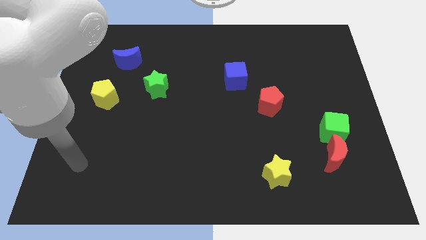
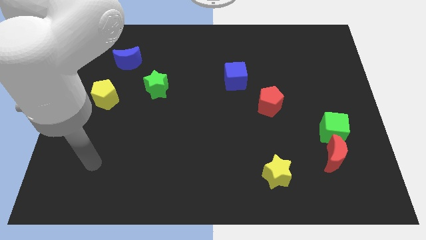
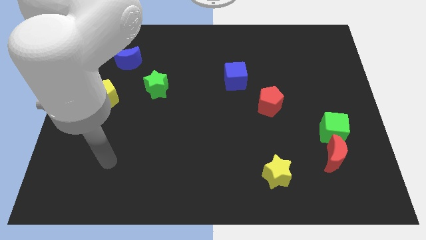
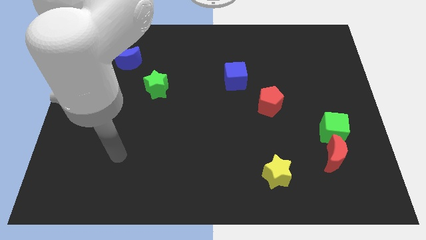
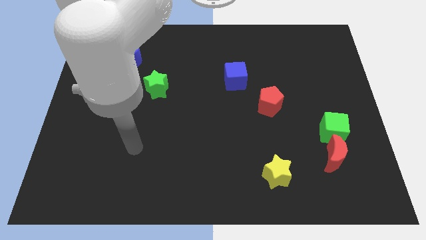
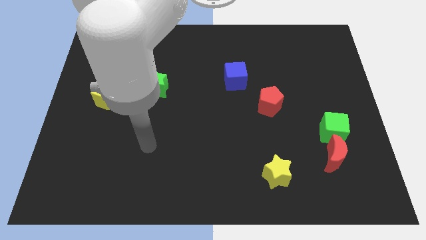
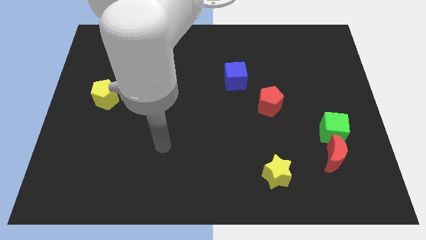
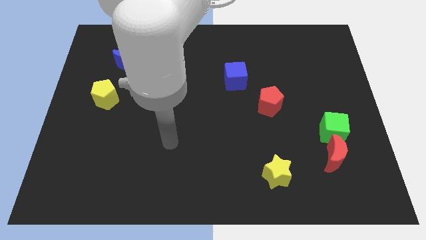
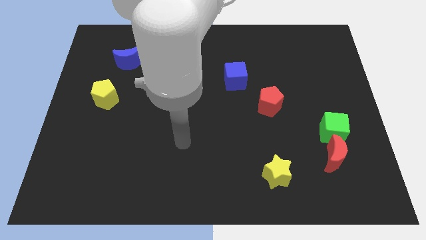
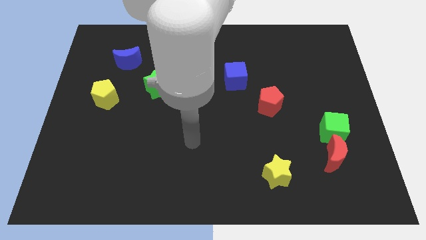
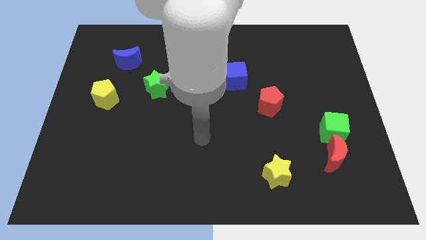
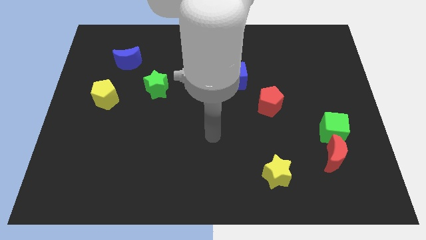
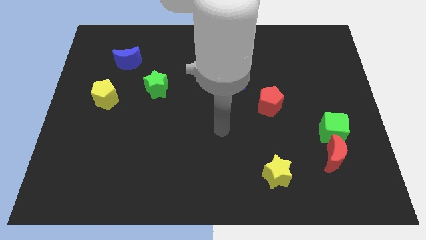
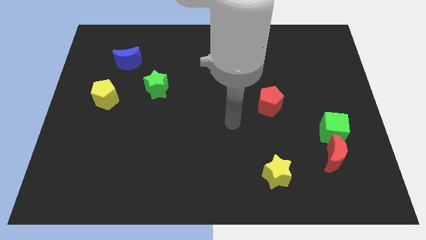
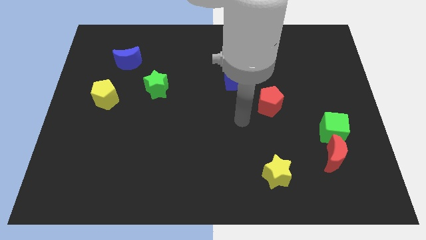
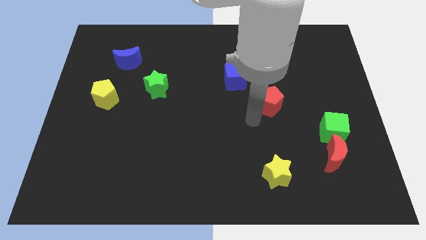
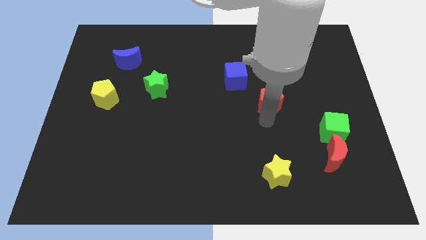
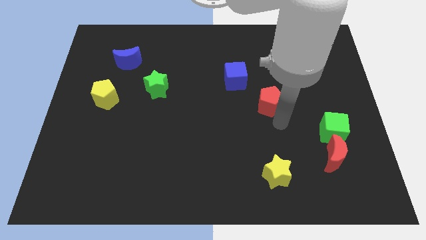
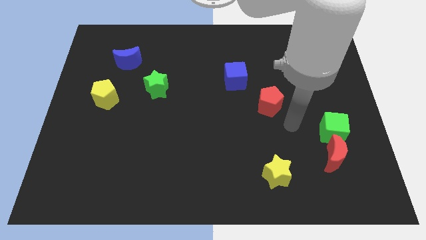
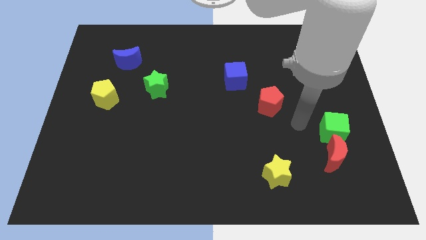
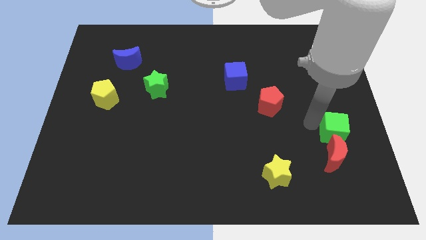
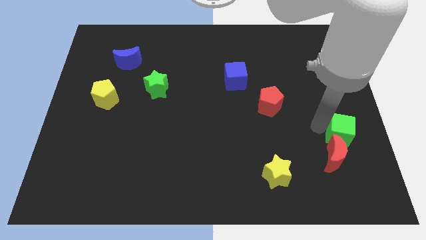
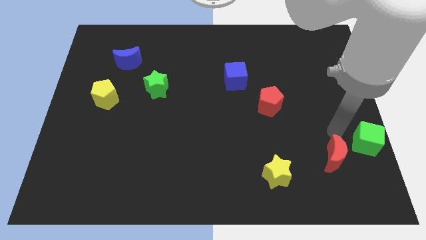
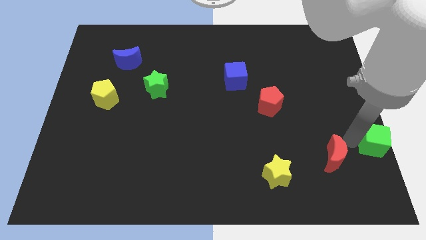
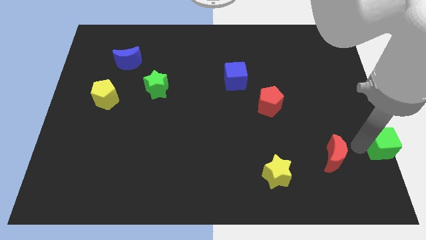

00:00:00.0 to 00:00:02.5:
pull the red moon apart from the green cube

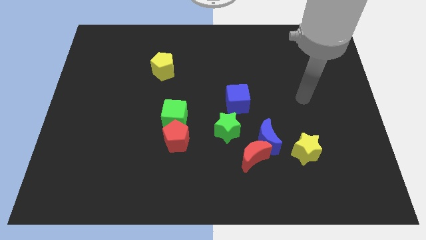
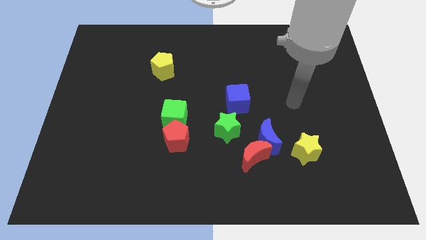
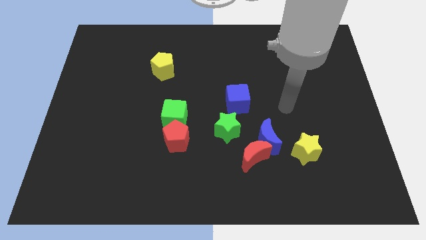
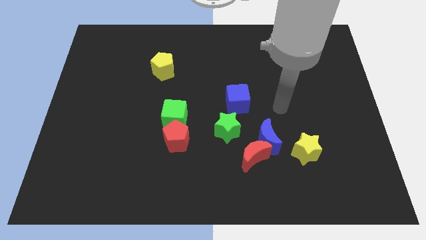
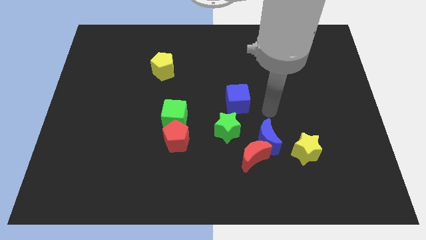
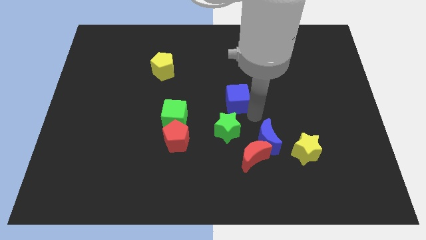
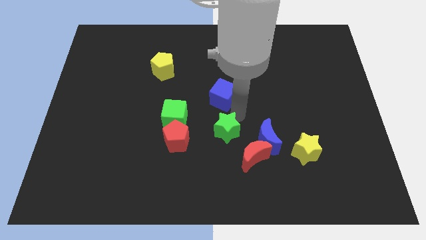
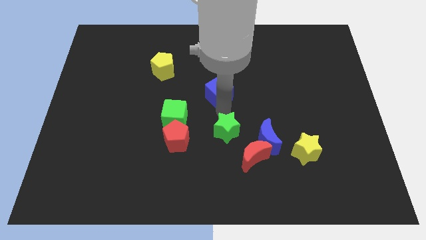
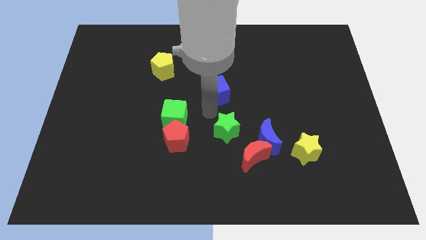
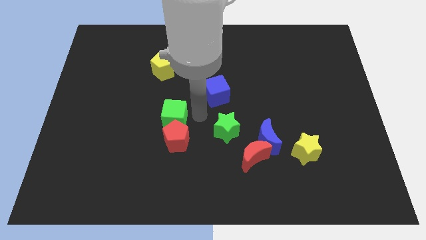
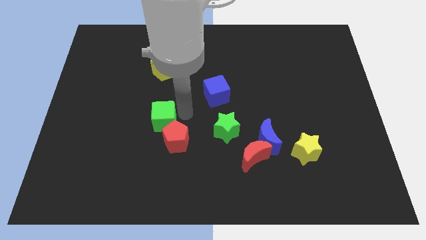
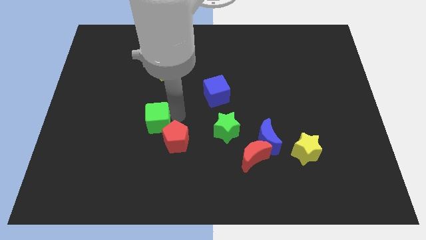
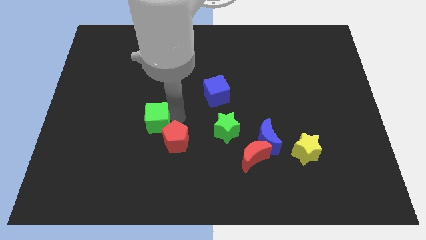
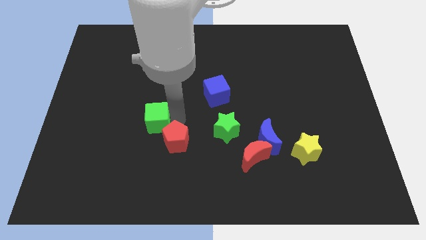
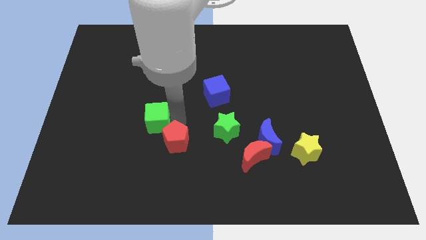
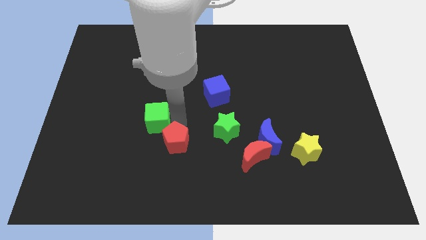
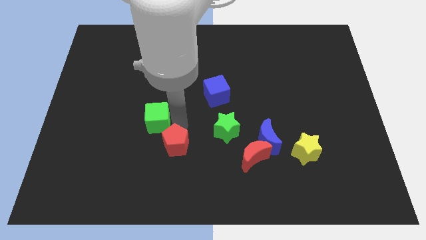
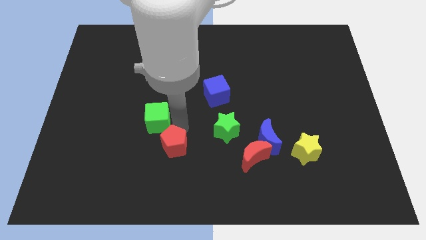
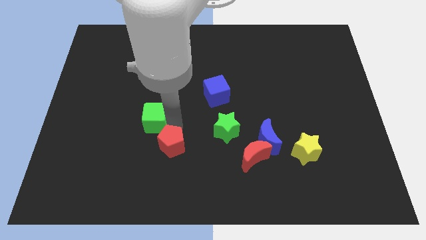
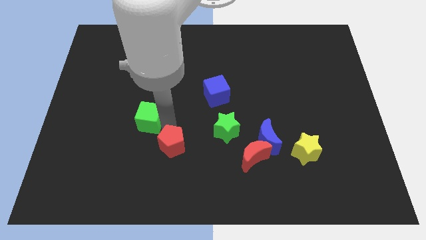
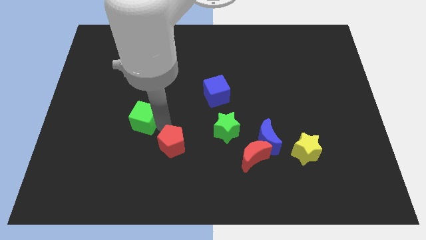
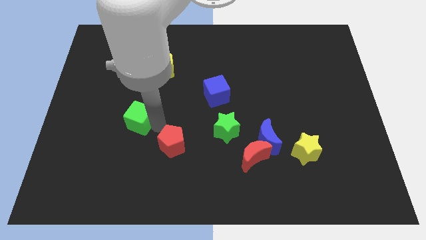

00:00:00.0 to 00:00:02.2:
move the red pentagon away from the green cube

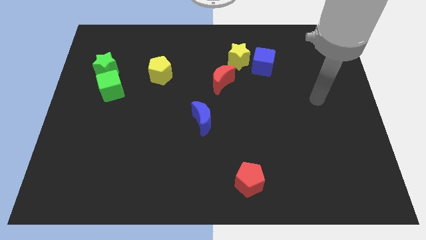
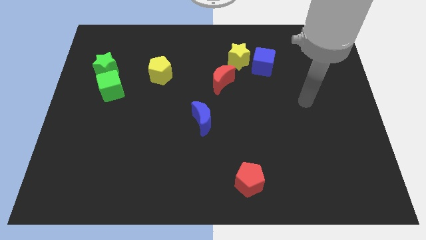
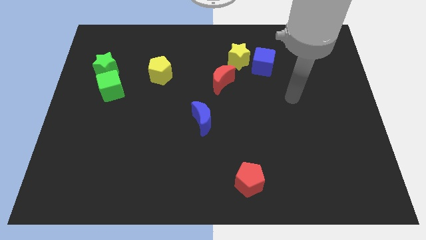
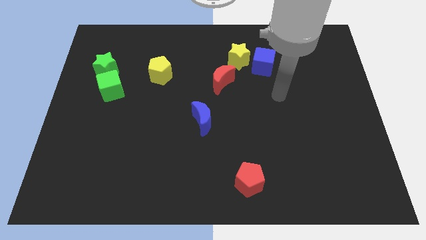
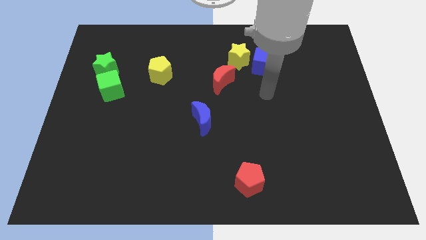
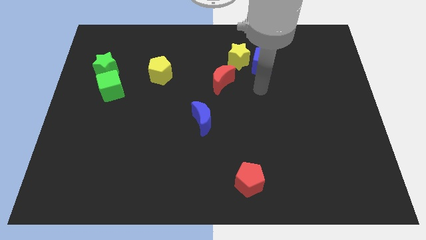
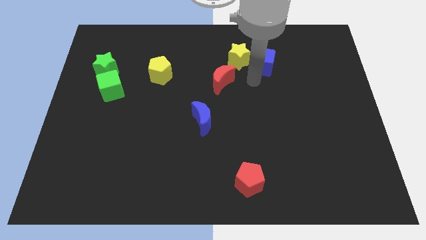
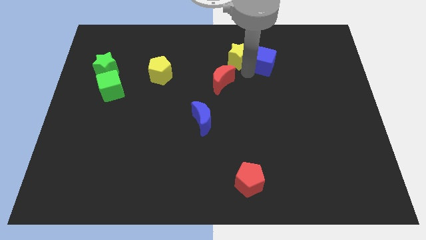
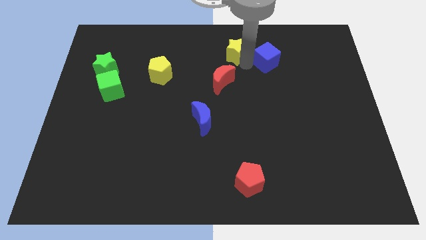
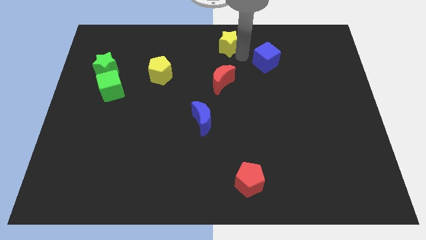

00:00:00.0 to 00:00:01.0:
separate the blue cube from the yellow star

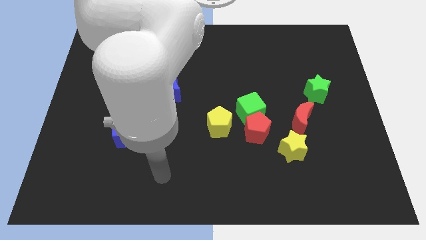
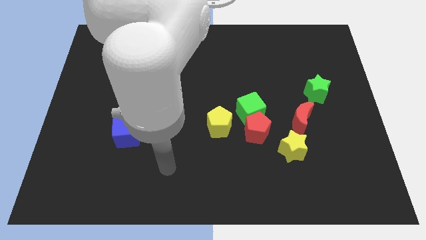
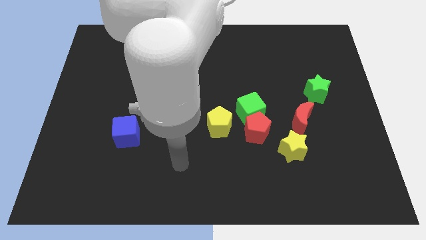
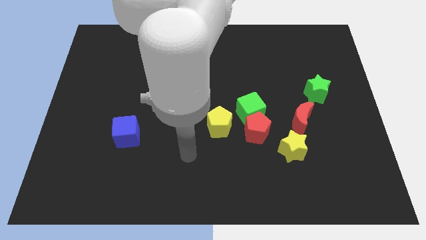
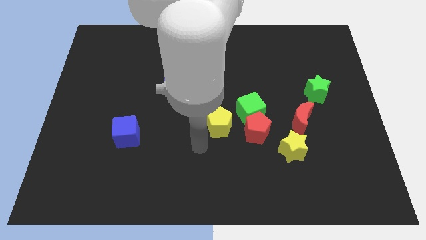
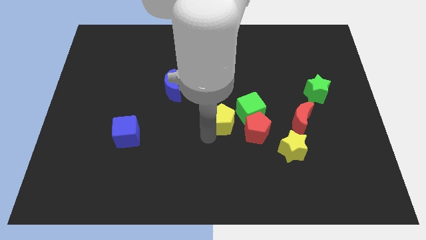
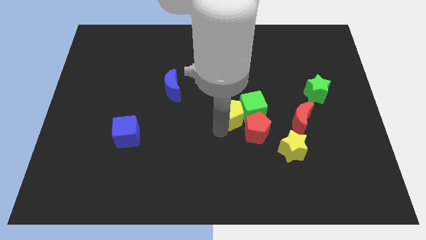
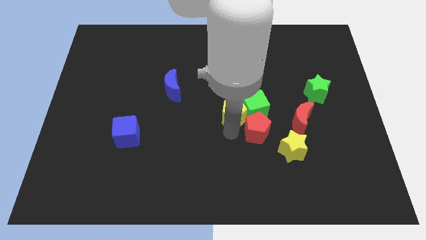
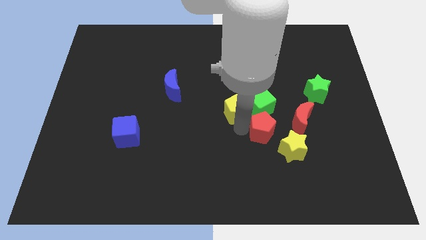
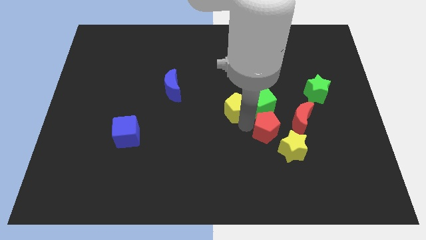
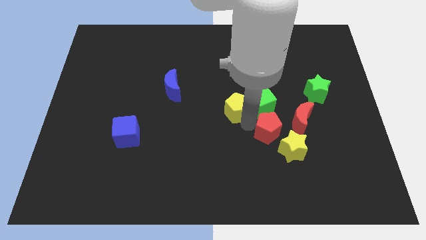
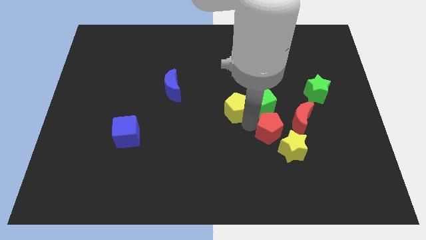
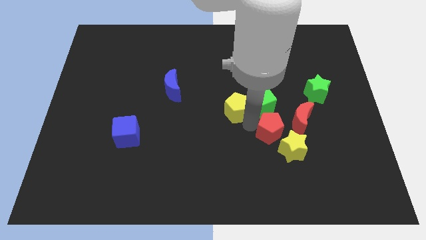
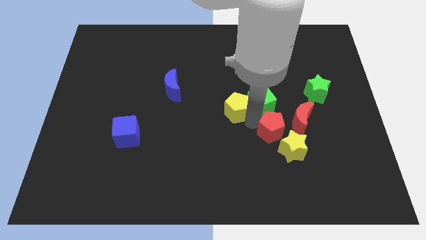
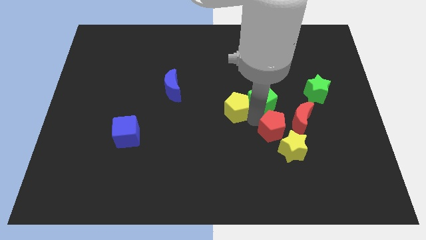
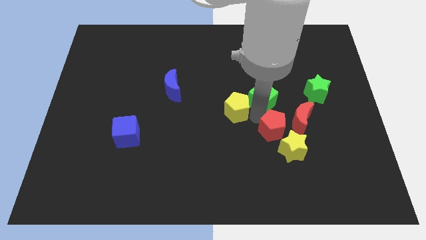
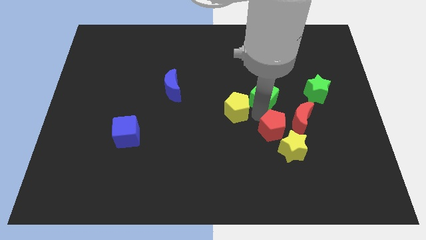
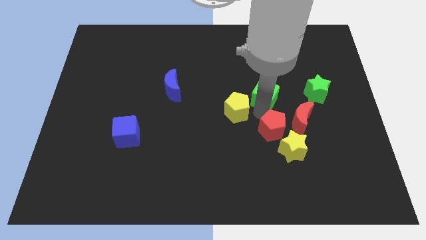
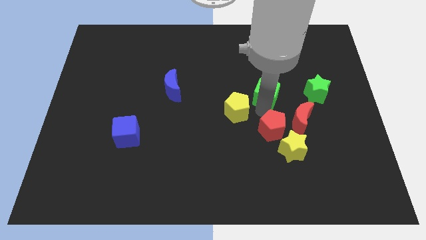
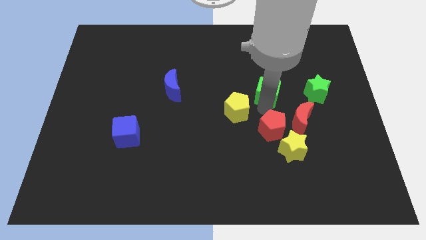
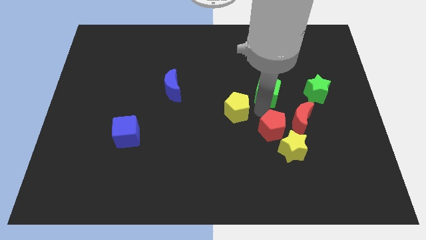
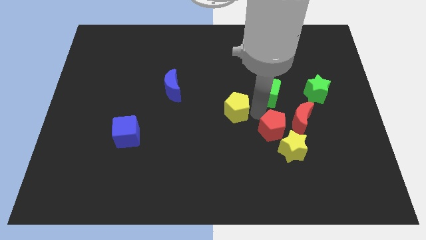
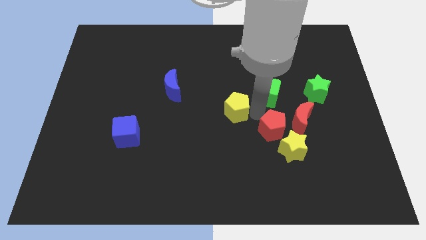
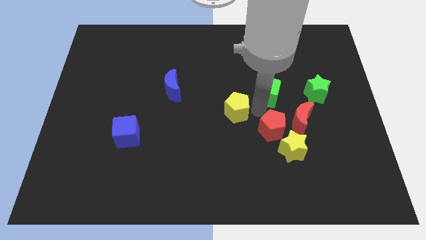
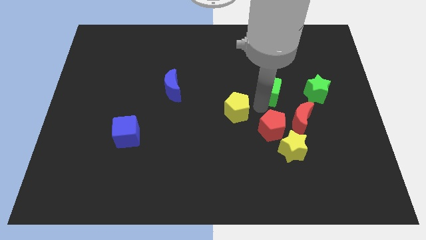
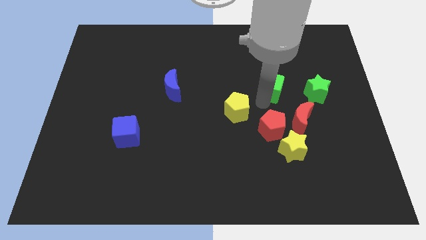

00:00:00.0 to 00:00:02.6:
pull the green cube apart from the red pentagon and yellow pentagon

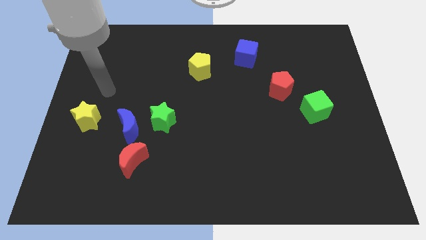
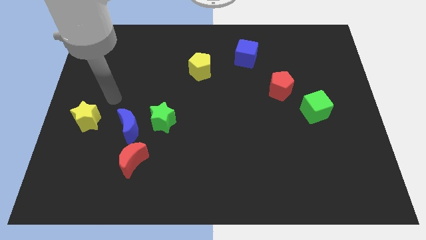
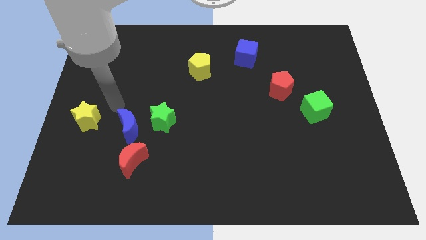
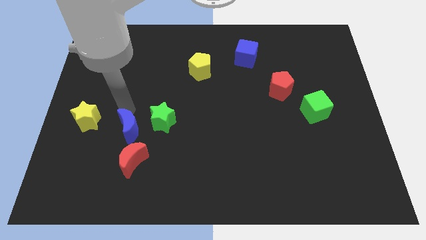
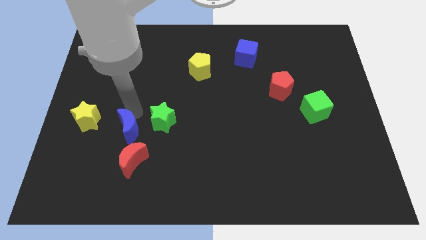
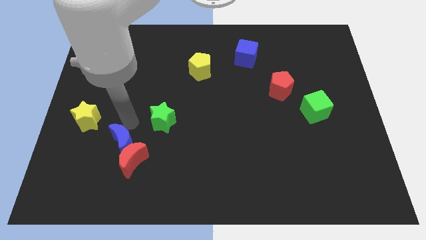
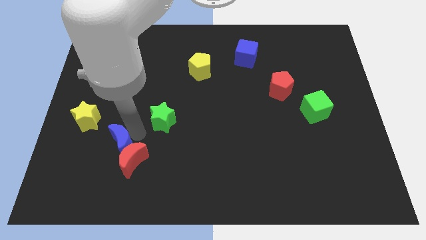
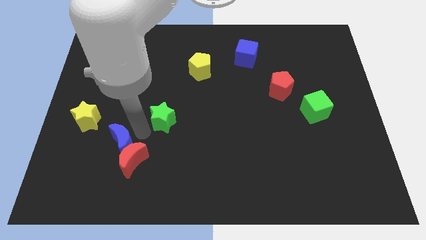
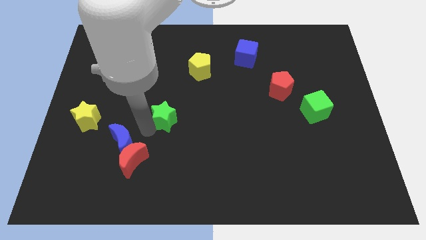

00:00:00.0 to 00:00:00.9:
separate the green star from the blue moon

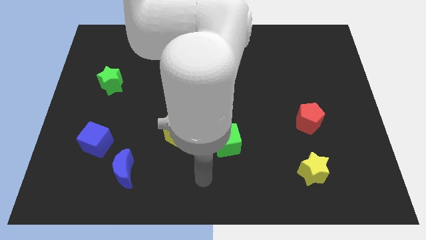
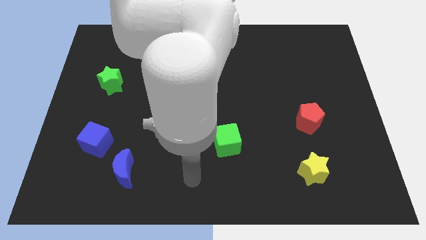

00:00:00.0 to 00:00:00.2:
move the blue moon away from the blue cube

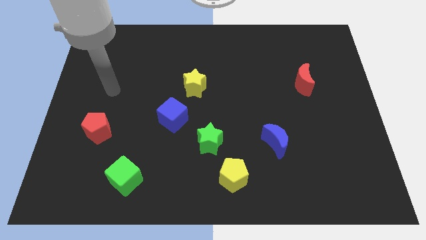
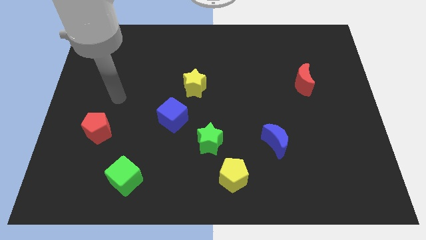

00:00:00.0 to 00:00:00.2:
move the green star away from the yellow pentagon
